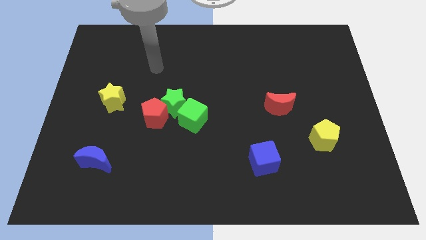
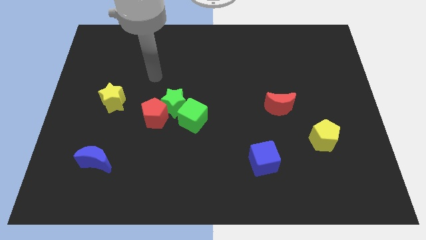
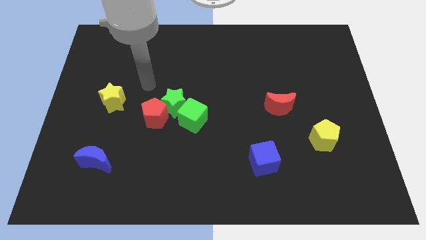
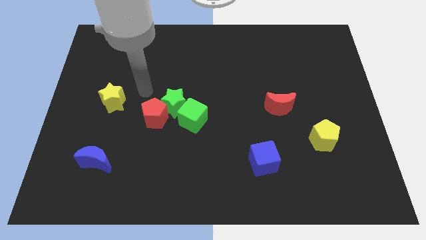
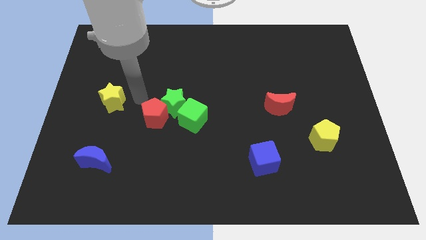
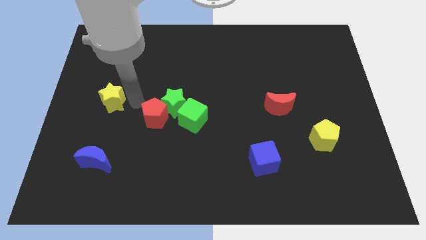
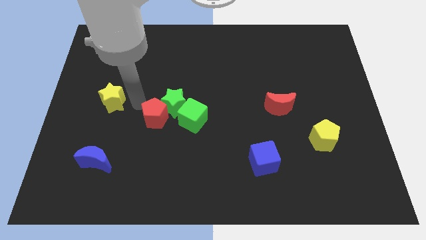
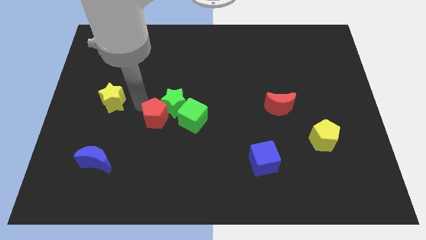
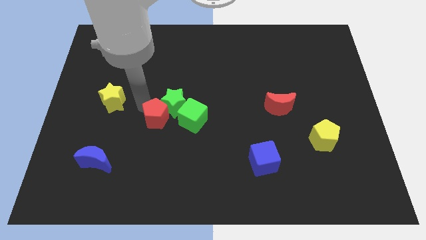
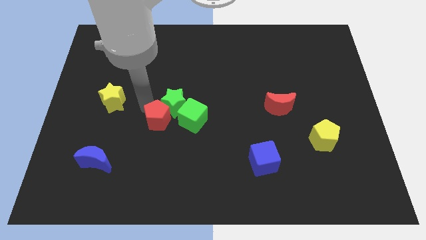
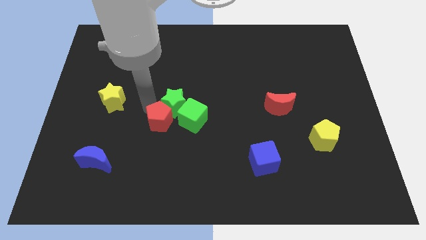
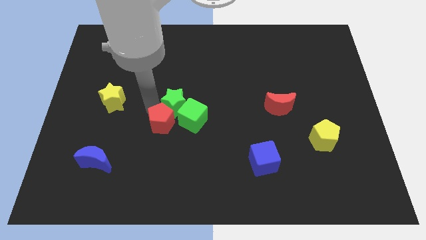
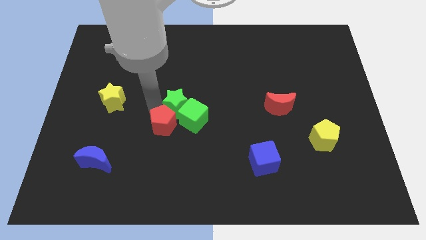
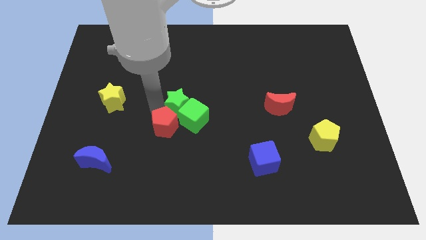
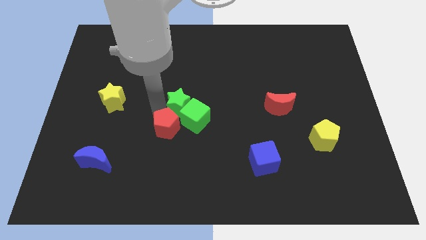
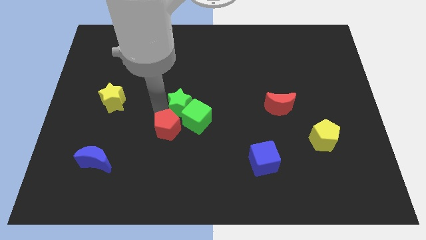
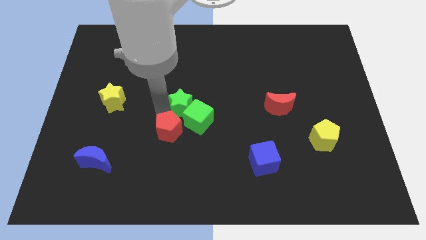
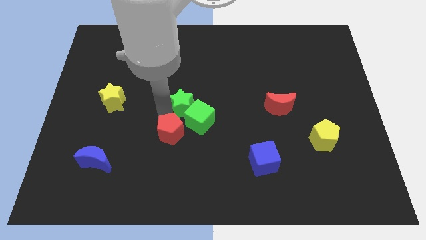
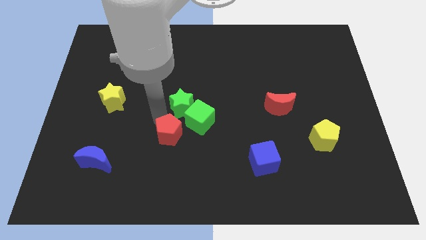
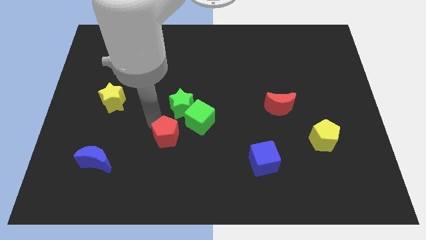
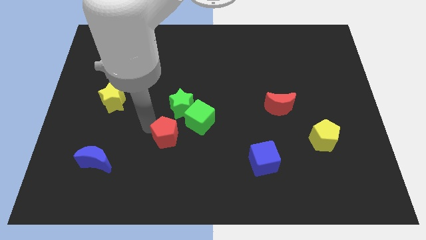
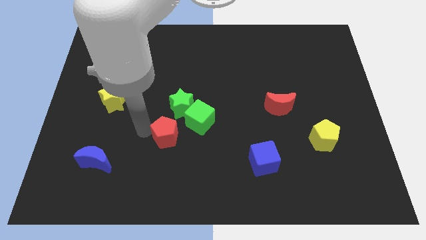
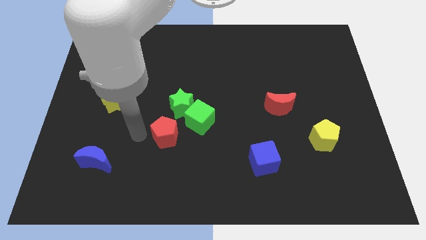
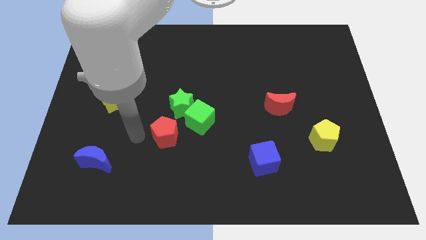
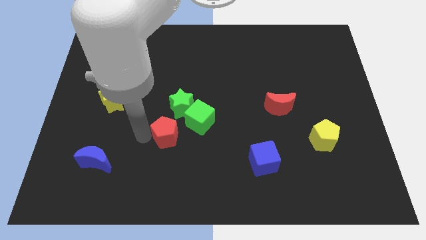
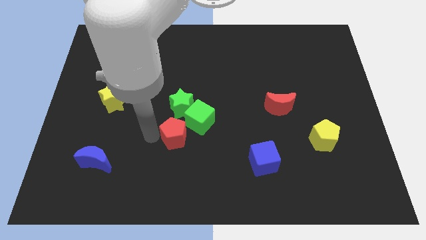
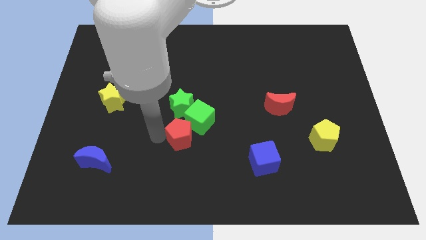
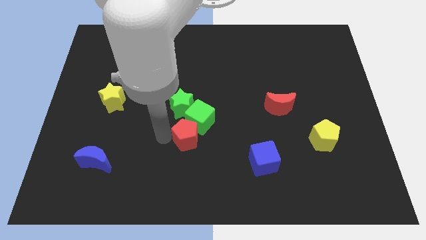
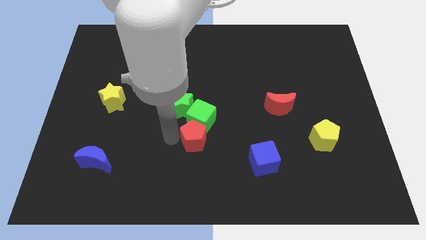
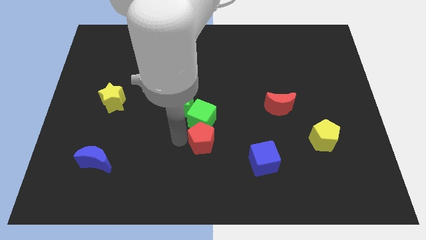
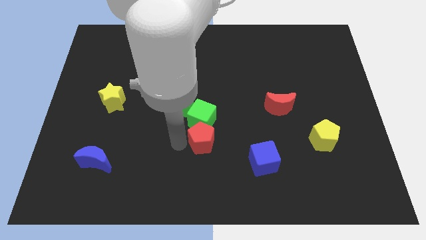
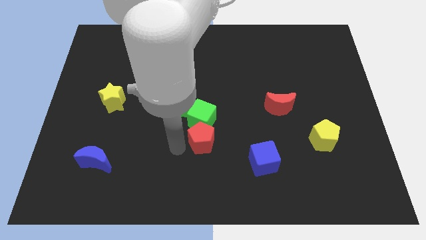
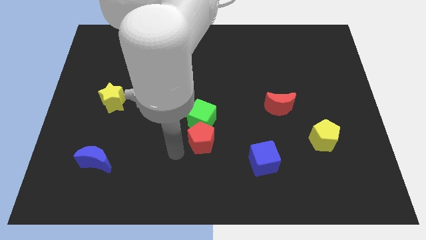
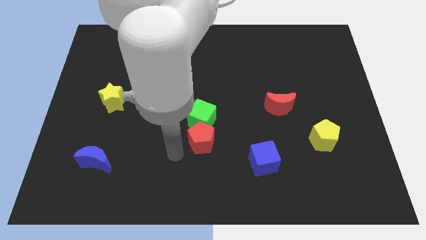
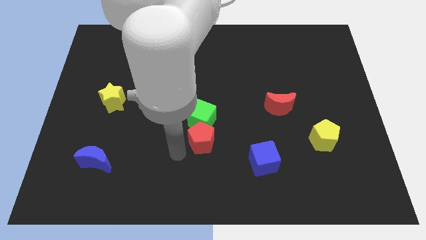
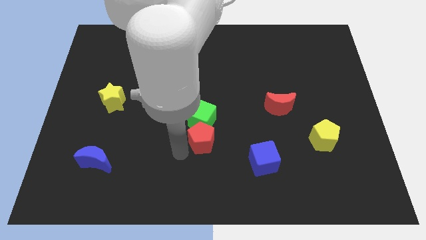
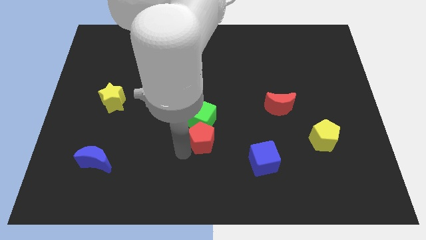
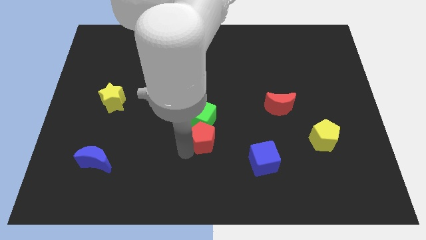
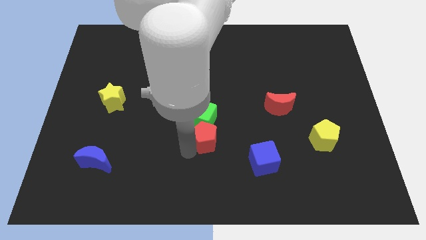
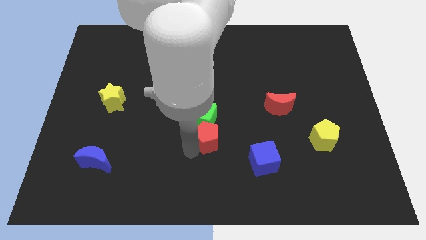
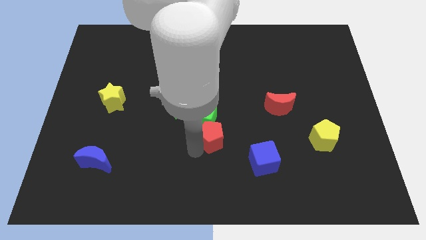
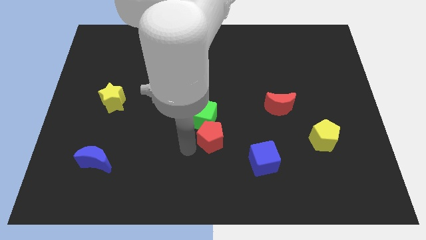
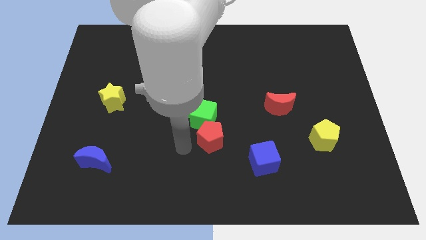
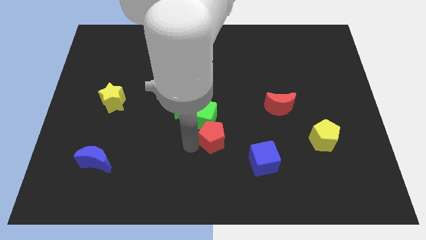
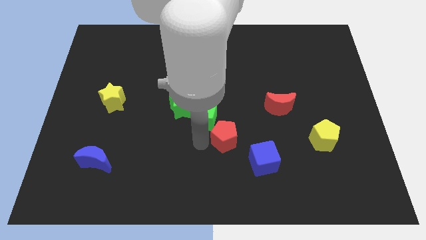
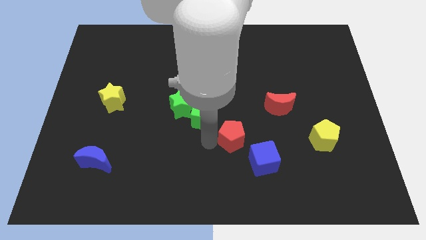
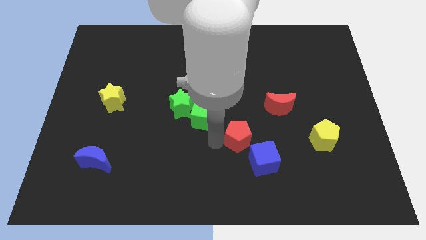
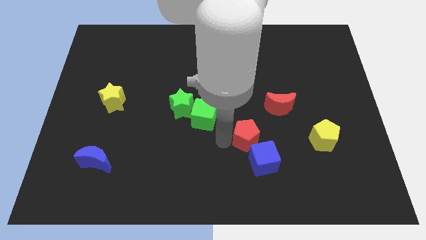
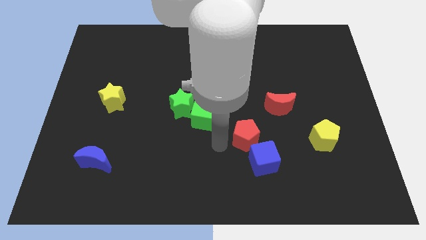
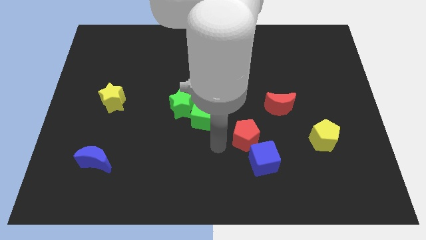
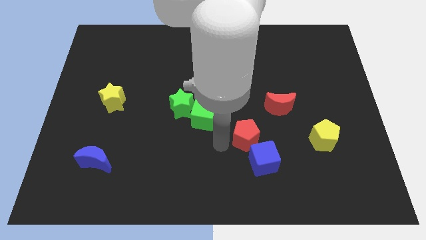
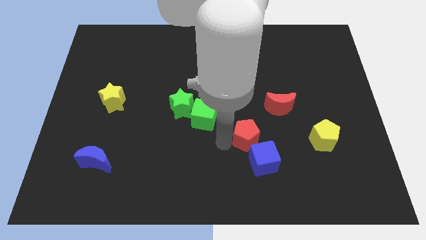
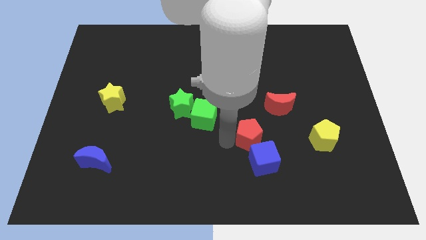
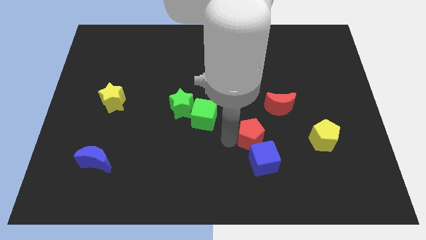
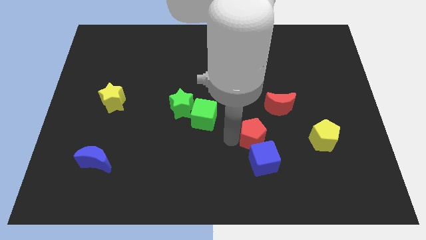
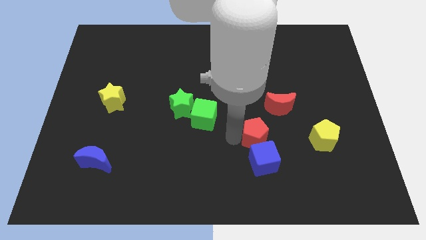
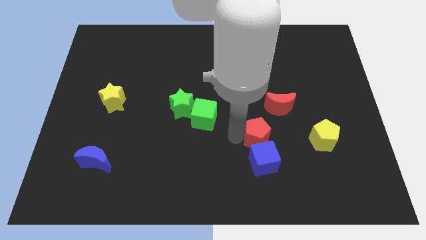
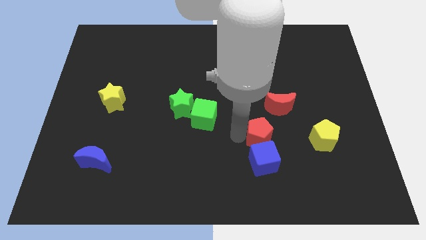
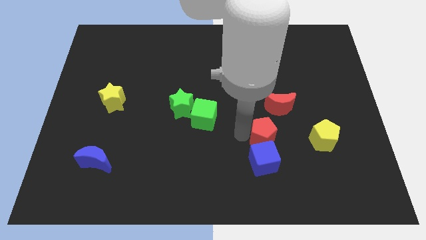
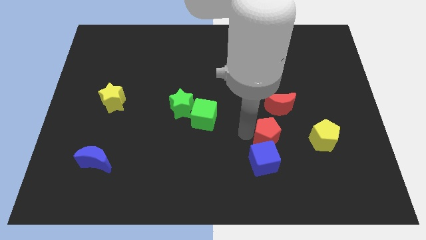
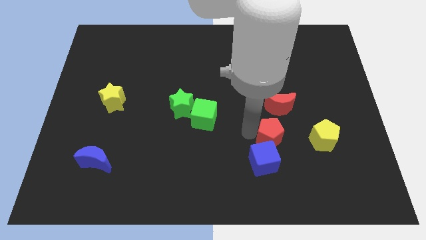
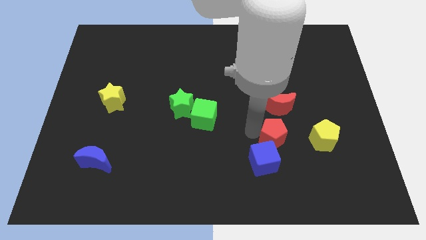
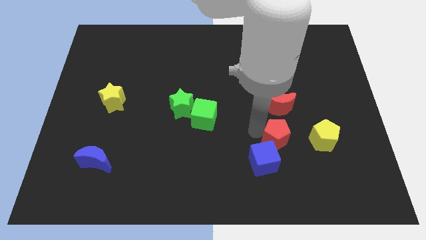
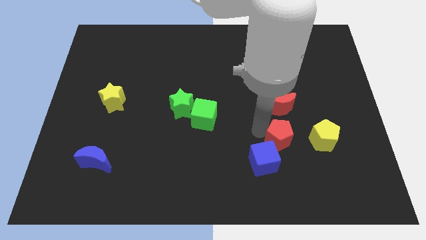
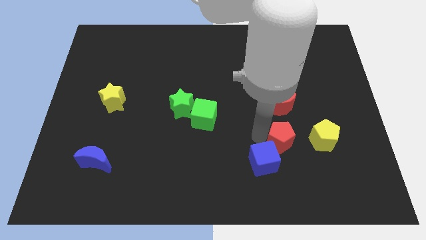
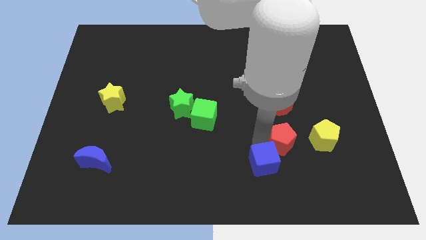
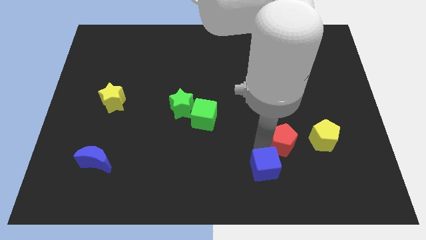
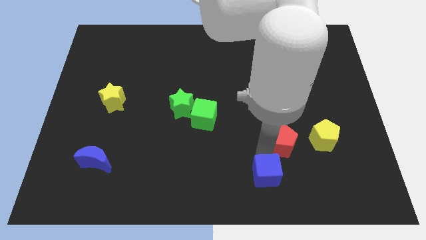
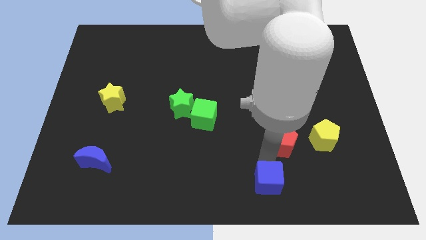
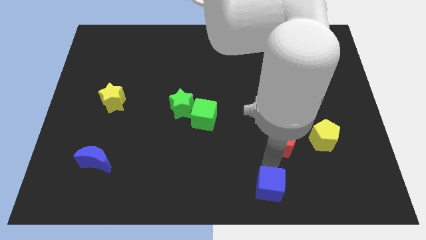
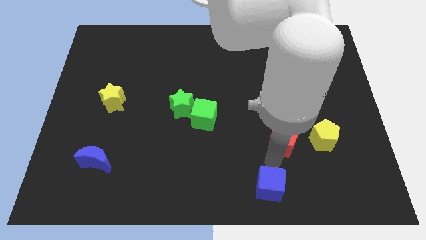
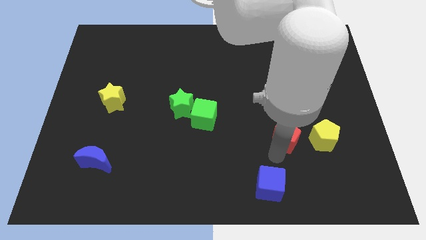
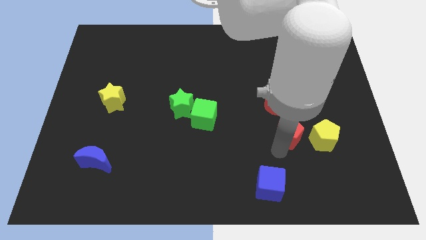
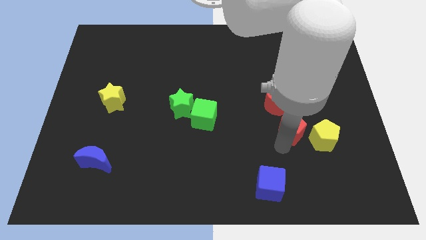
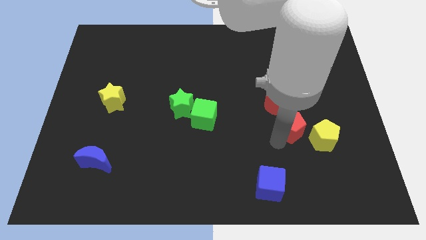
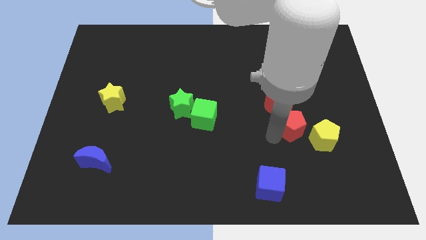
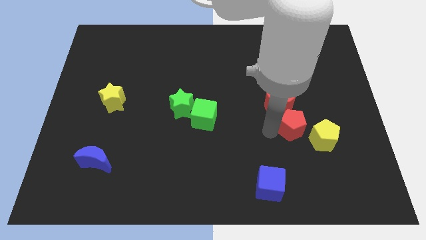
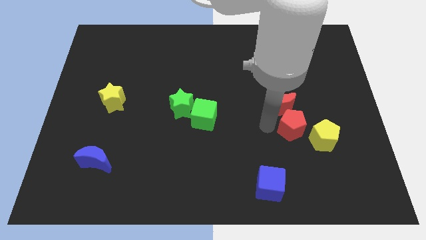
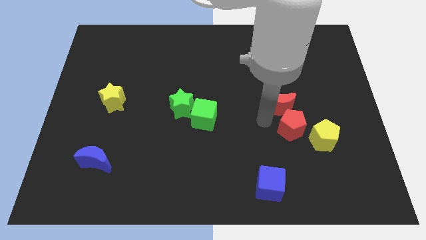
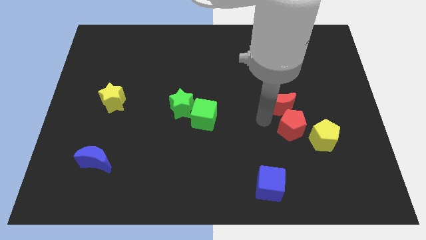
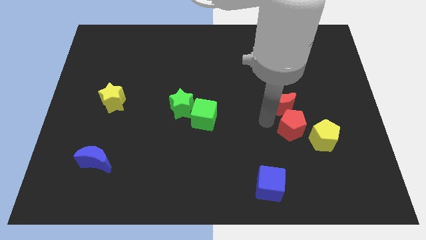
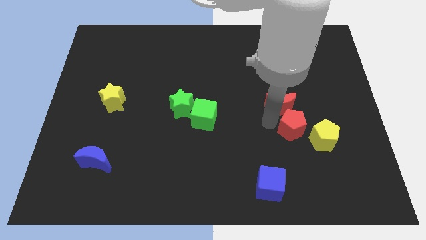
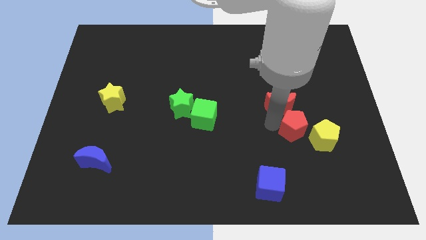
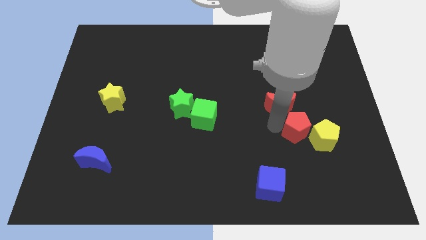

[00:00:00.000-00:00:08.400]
slide the red pentagon close to the yellow pentagon
